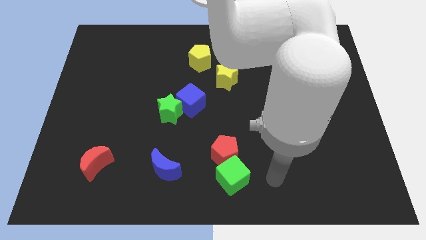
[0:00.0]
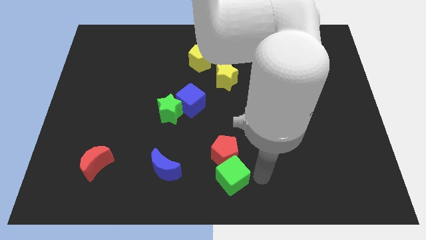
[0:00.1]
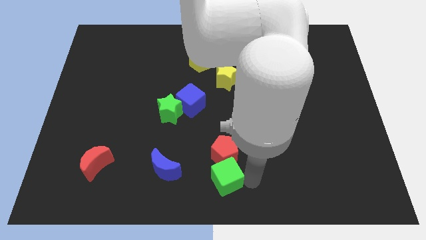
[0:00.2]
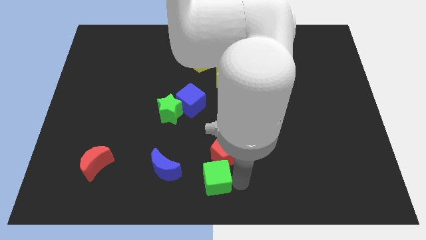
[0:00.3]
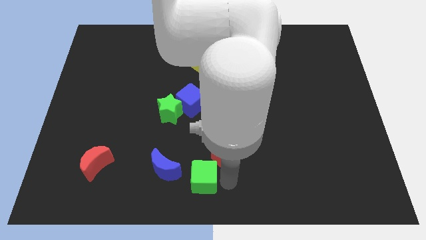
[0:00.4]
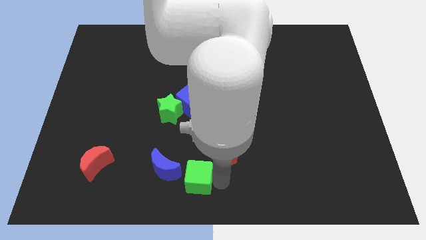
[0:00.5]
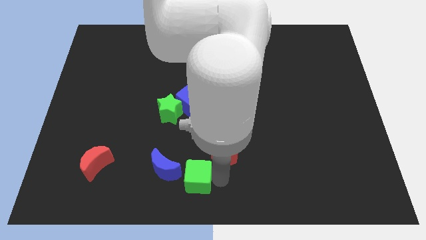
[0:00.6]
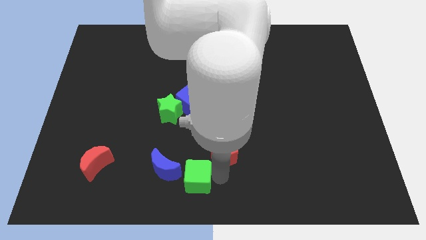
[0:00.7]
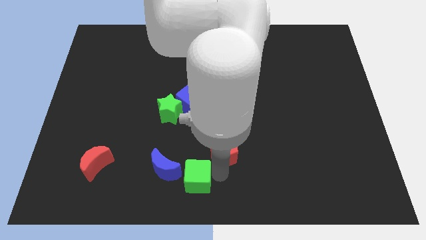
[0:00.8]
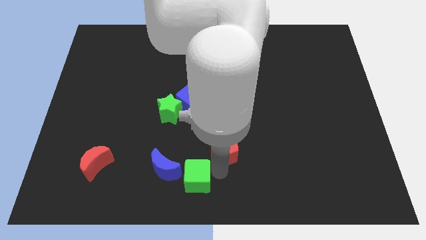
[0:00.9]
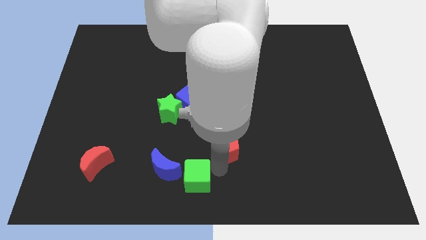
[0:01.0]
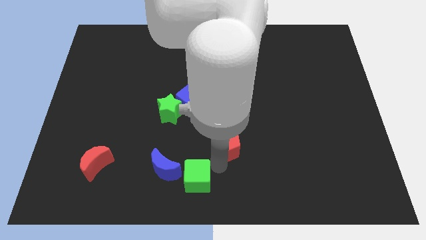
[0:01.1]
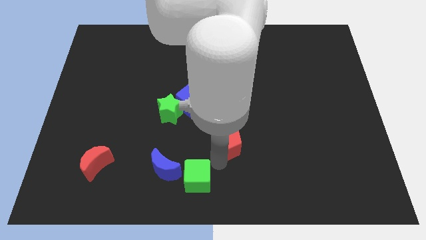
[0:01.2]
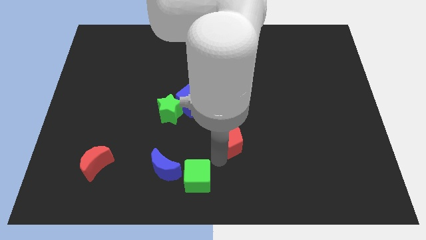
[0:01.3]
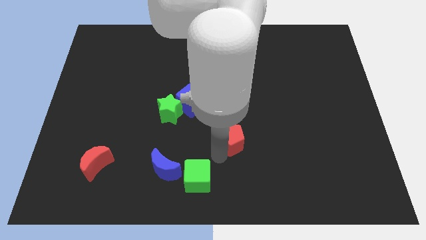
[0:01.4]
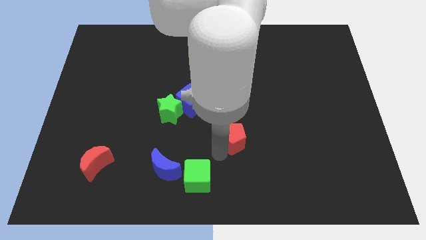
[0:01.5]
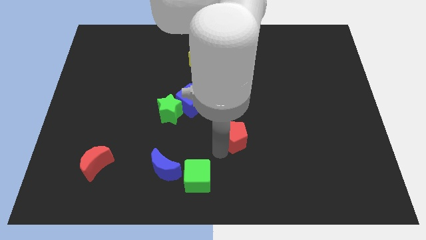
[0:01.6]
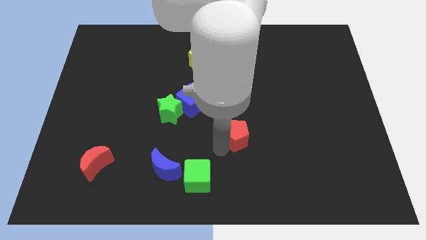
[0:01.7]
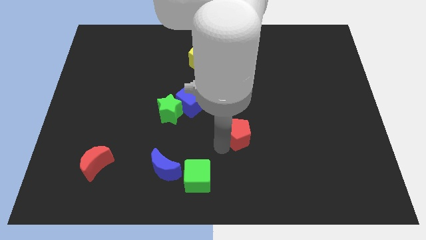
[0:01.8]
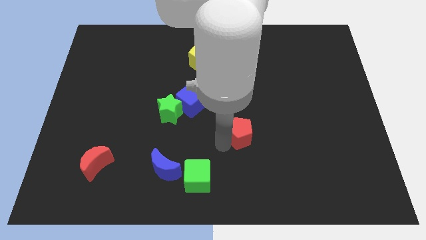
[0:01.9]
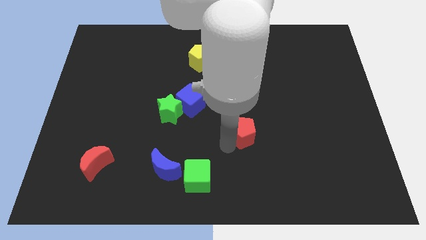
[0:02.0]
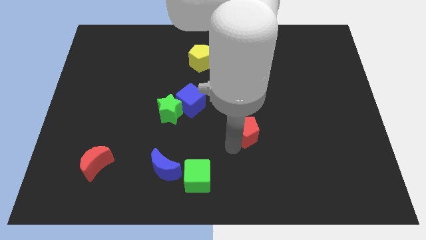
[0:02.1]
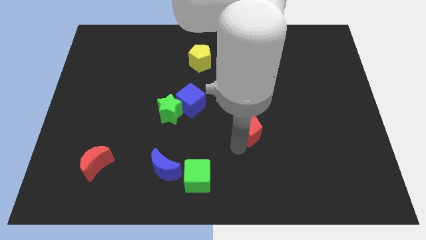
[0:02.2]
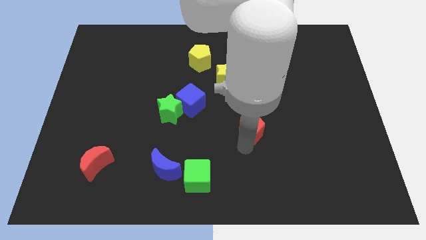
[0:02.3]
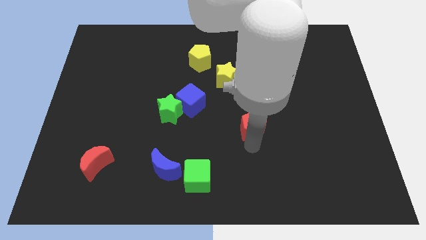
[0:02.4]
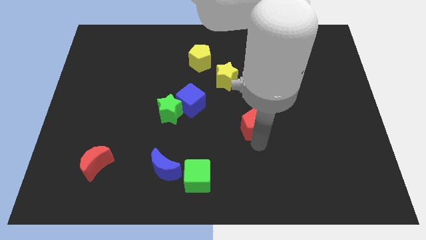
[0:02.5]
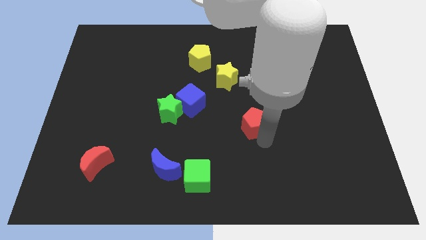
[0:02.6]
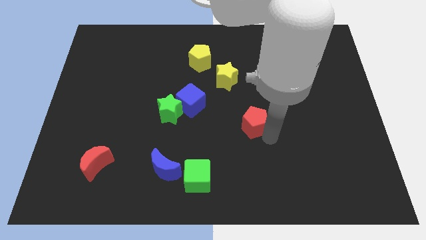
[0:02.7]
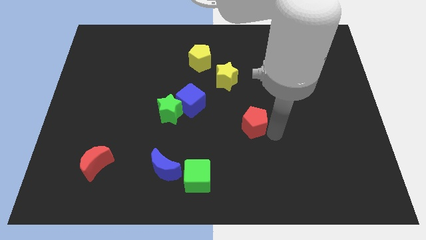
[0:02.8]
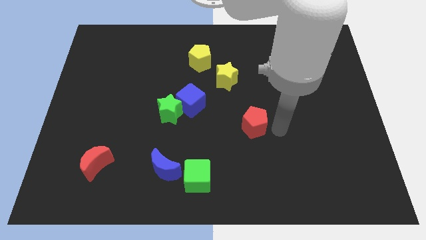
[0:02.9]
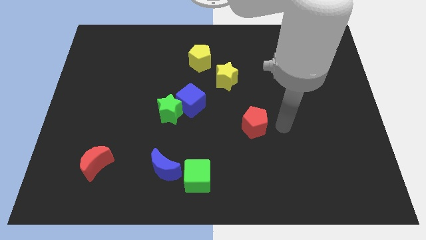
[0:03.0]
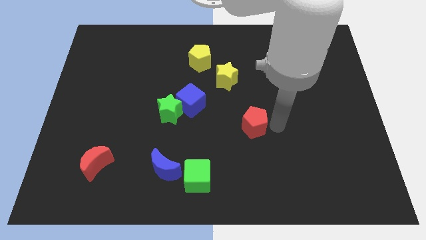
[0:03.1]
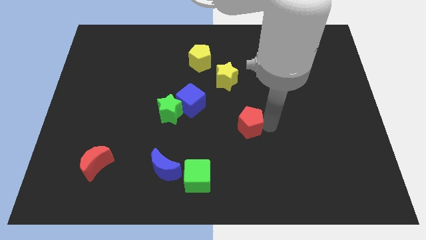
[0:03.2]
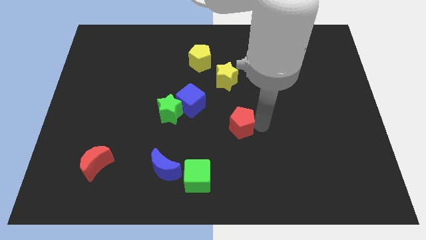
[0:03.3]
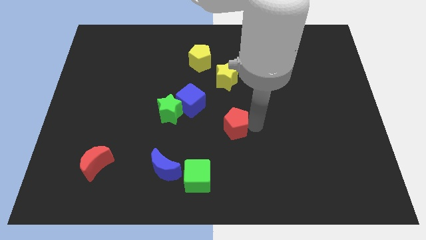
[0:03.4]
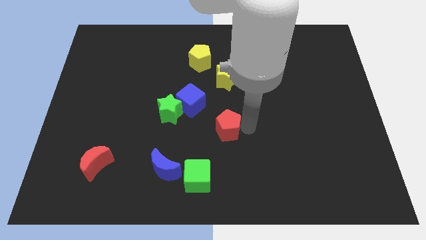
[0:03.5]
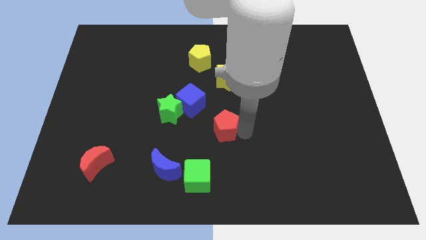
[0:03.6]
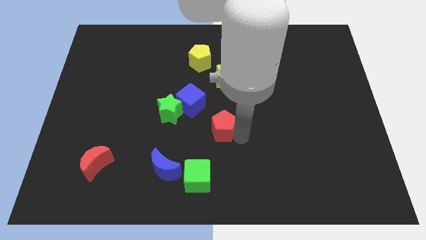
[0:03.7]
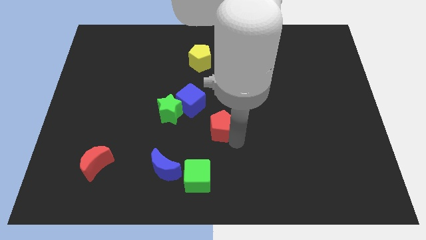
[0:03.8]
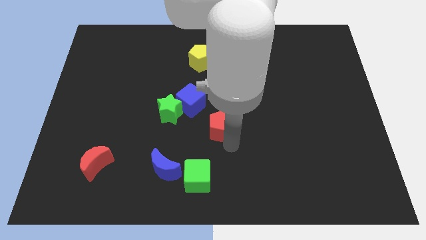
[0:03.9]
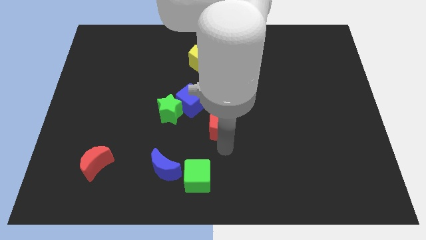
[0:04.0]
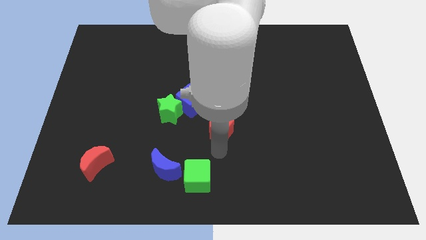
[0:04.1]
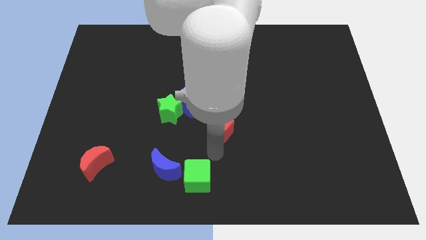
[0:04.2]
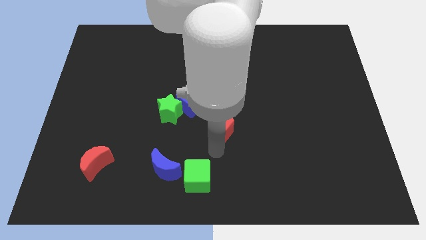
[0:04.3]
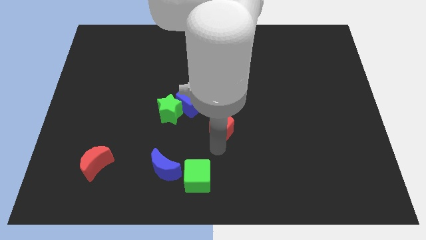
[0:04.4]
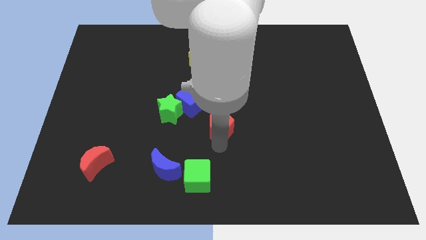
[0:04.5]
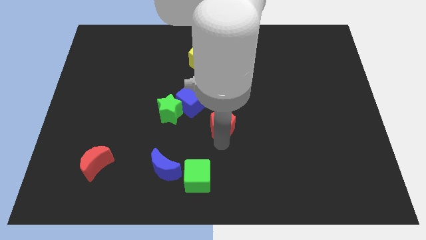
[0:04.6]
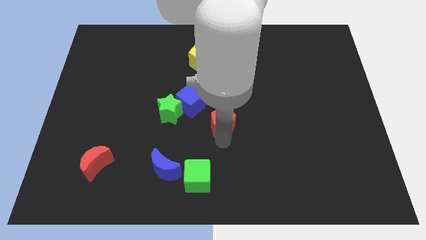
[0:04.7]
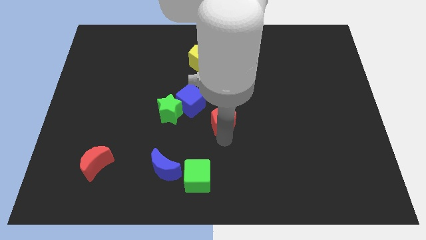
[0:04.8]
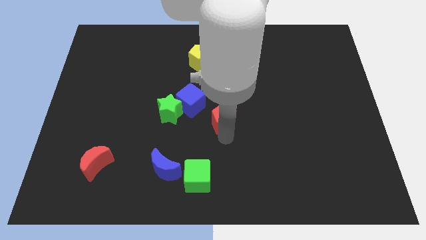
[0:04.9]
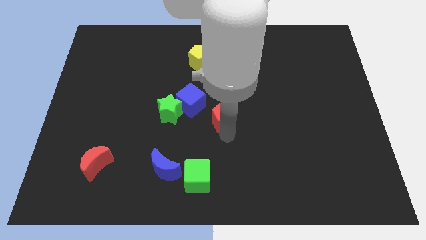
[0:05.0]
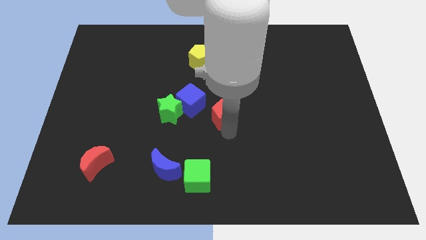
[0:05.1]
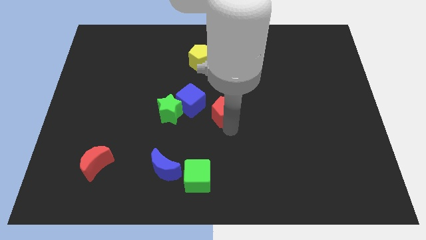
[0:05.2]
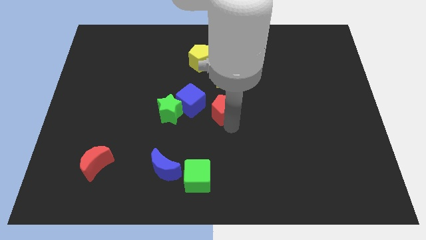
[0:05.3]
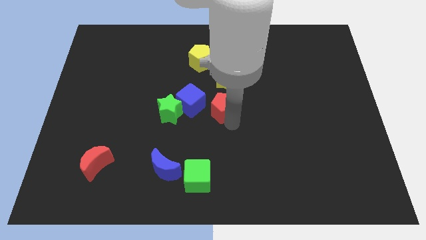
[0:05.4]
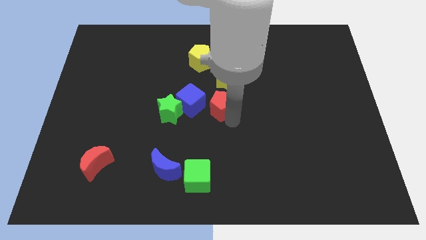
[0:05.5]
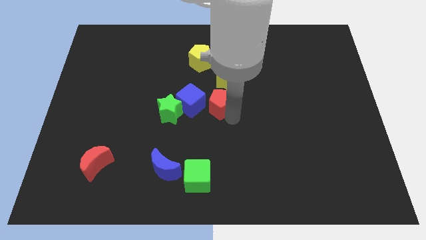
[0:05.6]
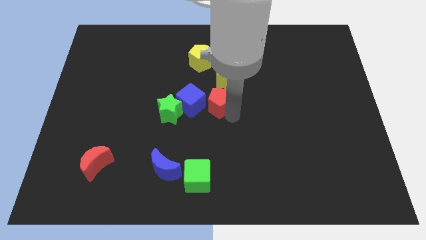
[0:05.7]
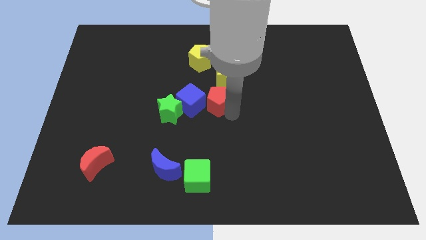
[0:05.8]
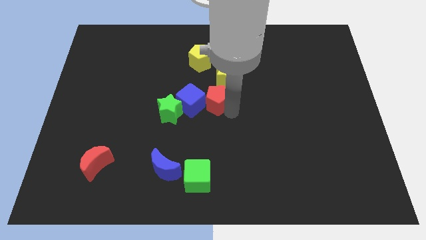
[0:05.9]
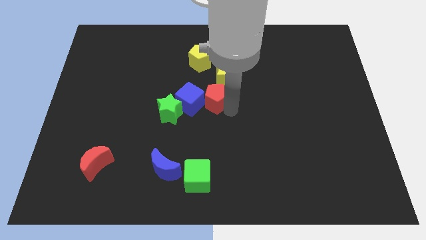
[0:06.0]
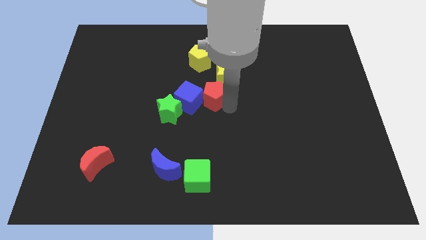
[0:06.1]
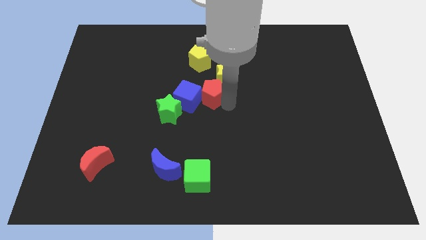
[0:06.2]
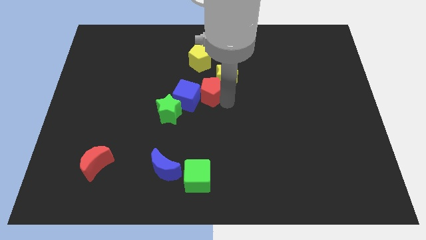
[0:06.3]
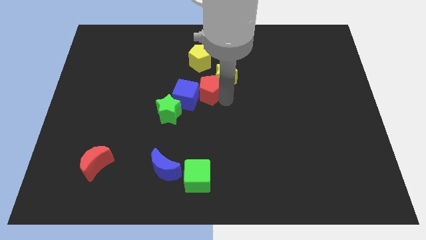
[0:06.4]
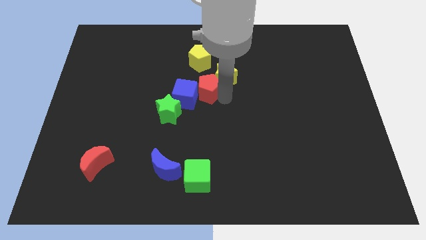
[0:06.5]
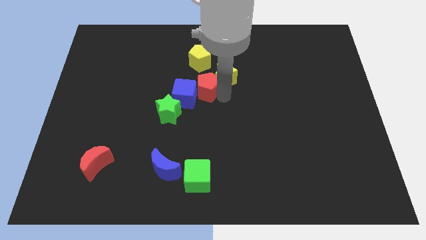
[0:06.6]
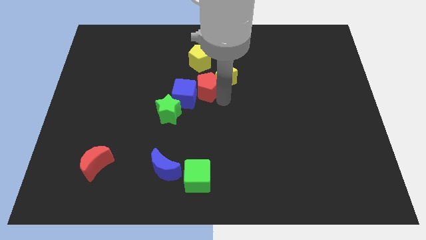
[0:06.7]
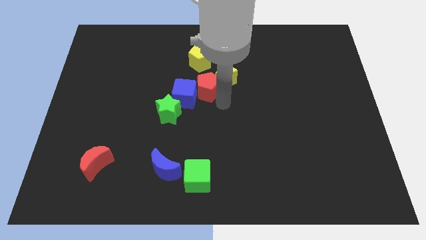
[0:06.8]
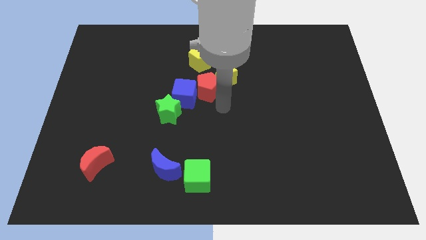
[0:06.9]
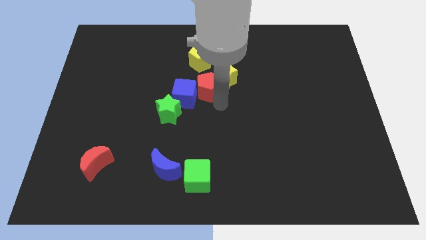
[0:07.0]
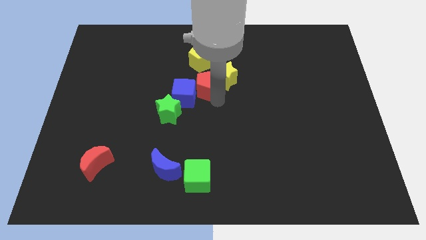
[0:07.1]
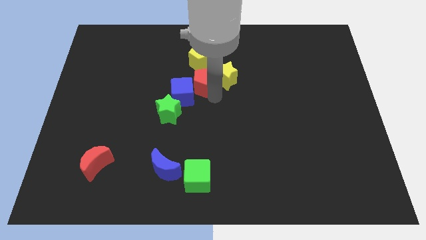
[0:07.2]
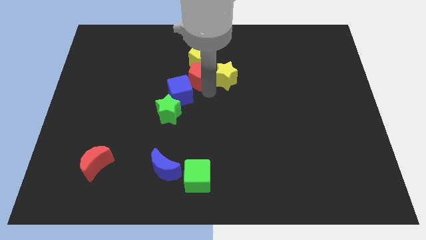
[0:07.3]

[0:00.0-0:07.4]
move the red pentagon to the yellow pentagon

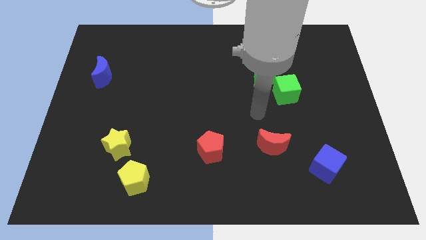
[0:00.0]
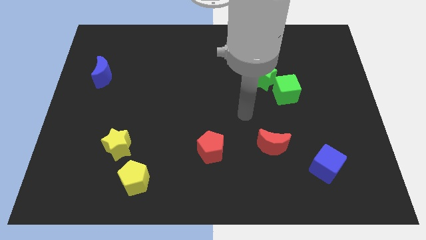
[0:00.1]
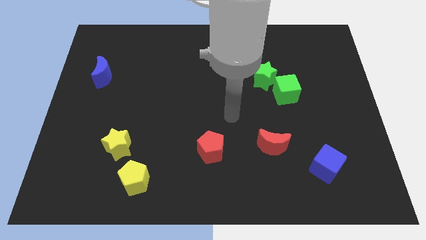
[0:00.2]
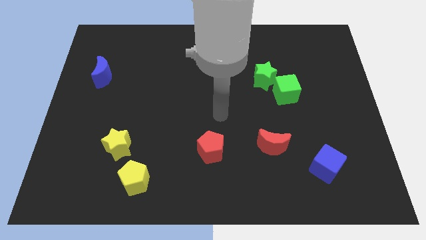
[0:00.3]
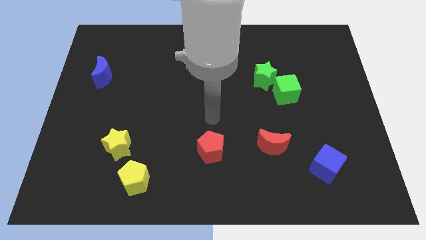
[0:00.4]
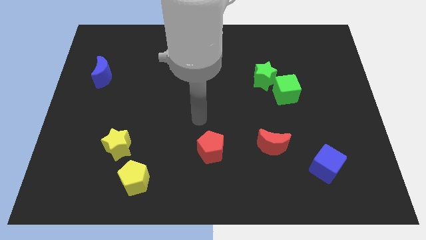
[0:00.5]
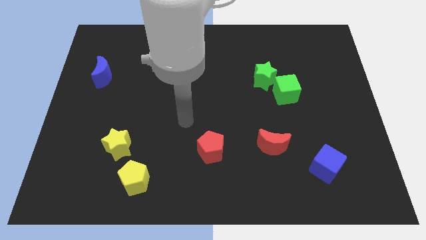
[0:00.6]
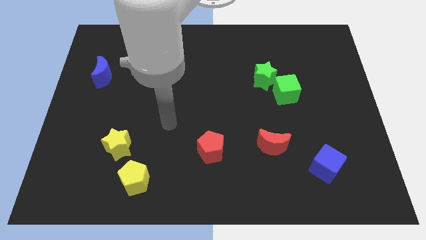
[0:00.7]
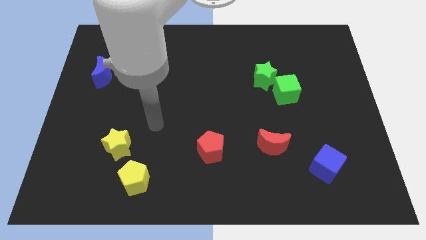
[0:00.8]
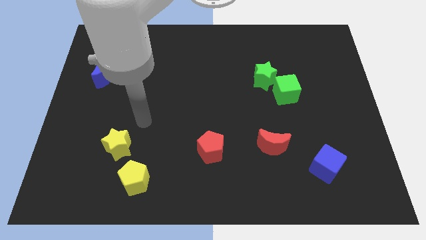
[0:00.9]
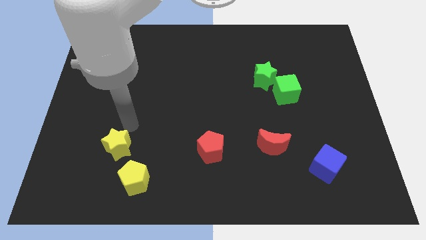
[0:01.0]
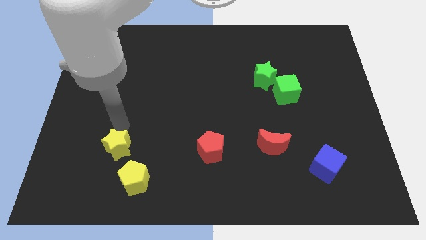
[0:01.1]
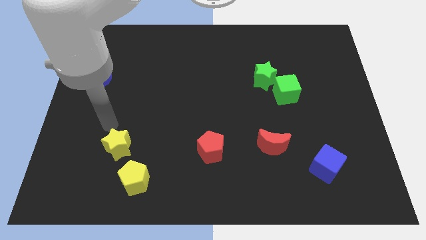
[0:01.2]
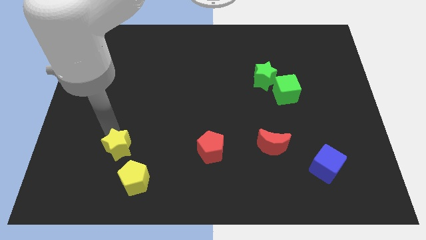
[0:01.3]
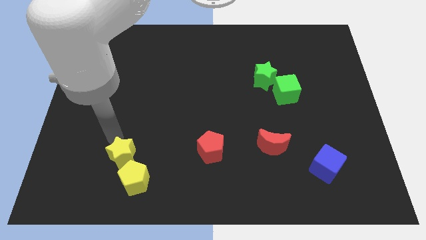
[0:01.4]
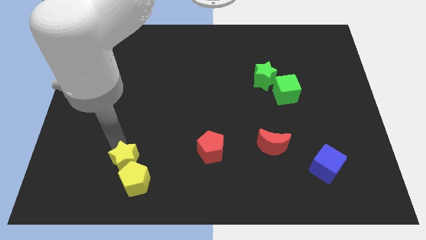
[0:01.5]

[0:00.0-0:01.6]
put the yellow star towards the yellow pentagon
